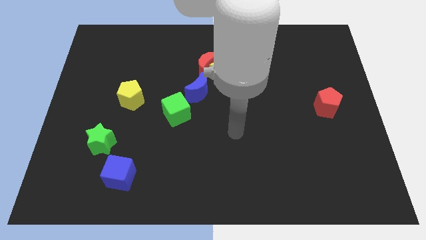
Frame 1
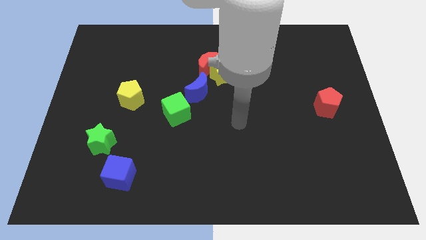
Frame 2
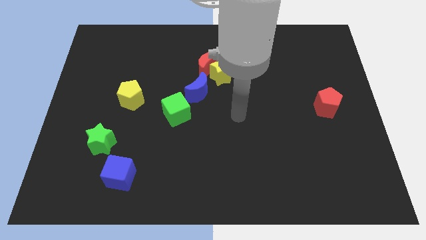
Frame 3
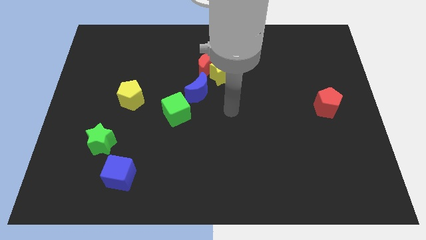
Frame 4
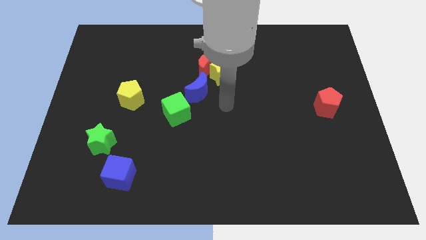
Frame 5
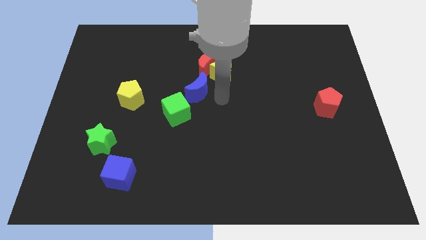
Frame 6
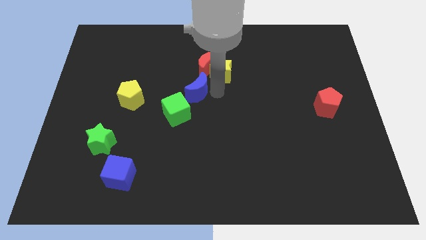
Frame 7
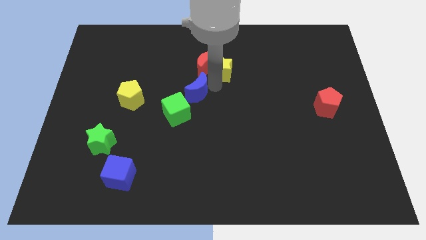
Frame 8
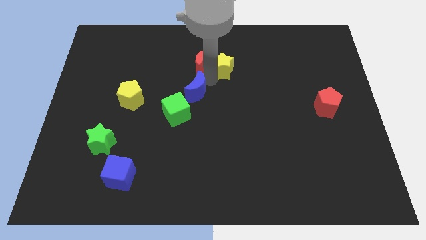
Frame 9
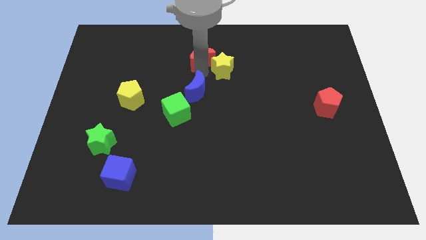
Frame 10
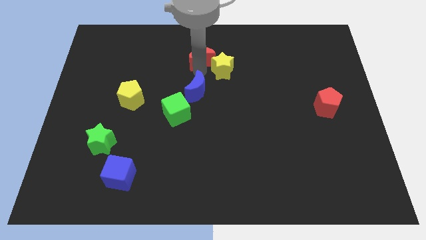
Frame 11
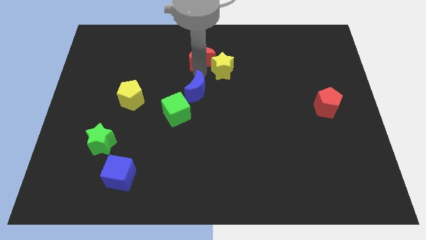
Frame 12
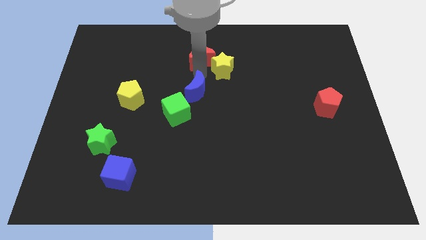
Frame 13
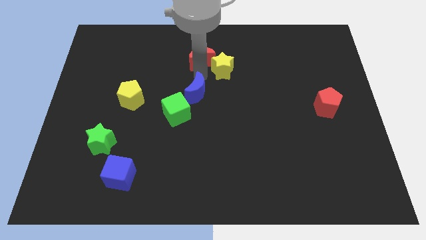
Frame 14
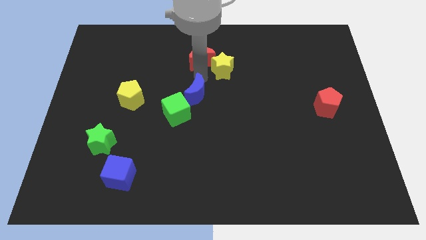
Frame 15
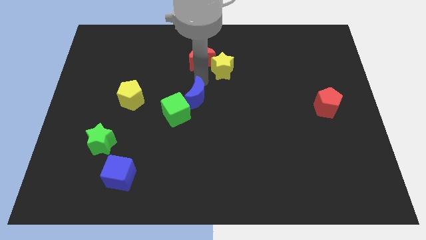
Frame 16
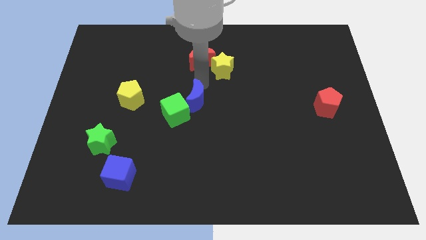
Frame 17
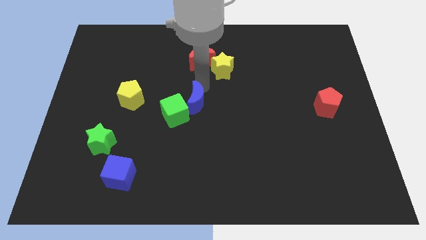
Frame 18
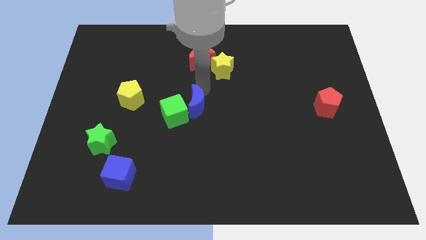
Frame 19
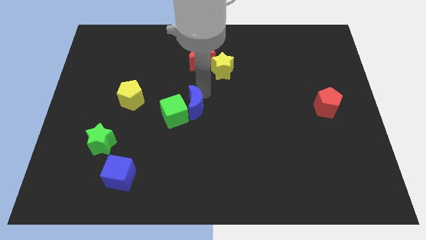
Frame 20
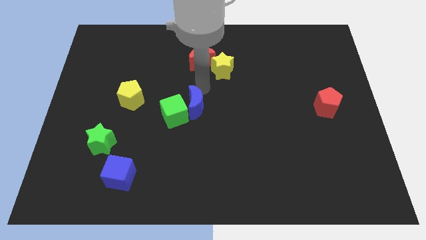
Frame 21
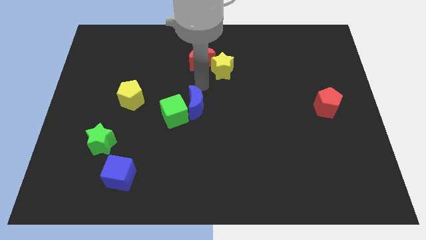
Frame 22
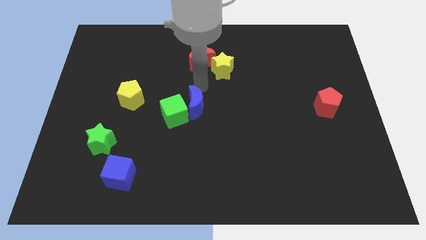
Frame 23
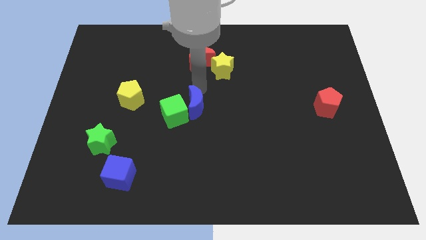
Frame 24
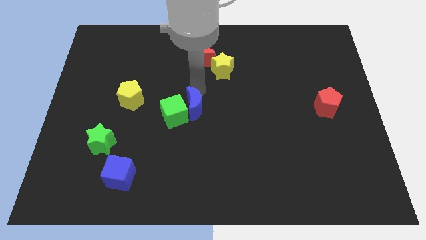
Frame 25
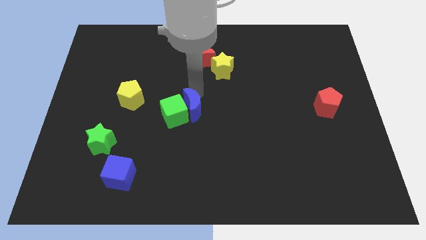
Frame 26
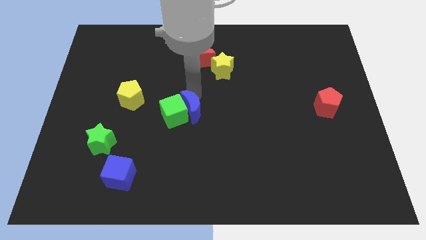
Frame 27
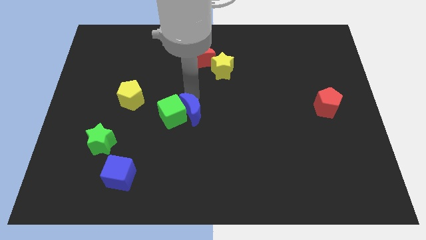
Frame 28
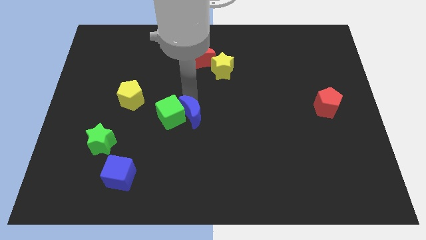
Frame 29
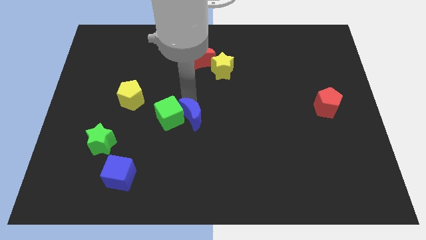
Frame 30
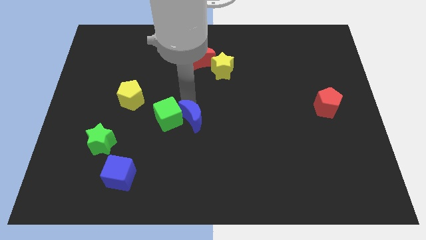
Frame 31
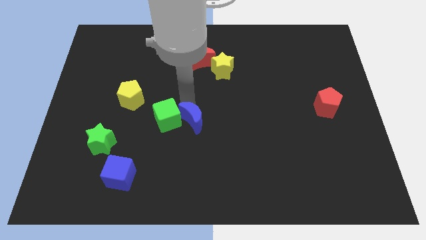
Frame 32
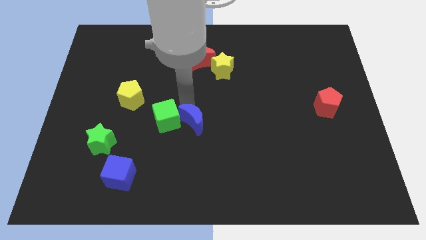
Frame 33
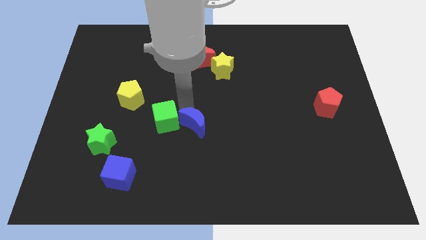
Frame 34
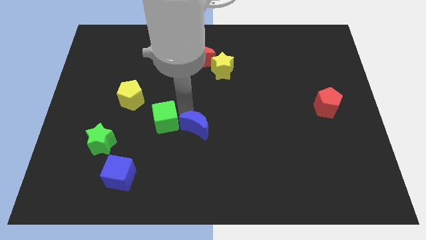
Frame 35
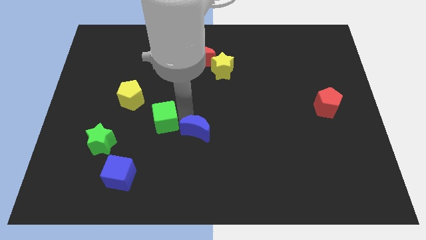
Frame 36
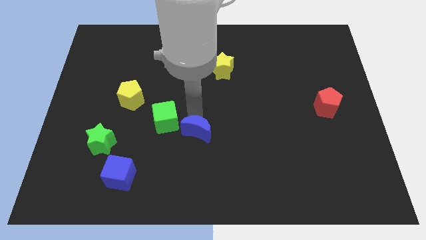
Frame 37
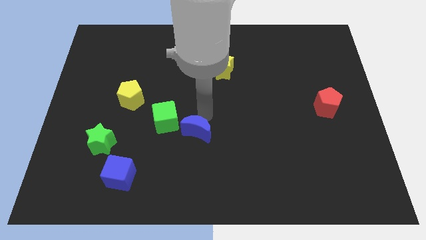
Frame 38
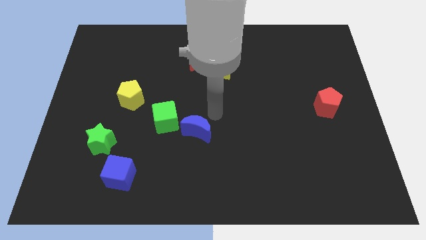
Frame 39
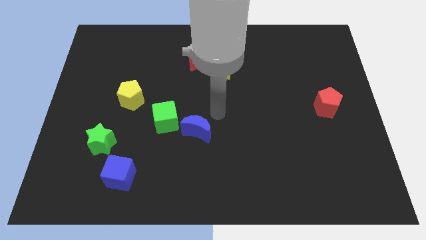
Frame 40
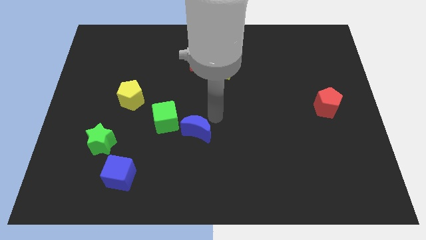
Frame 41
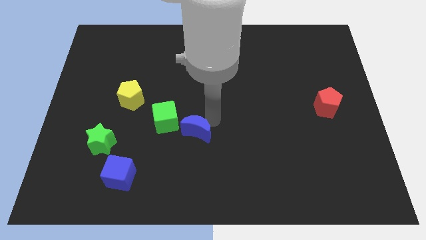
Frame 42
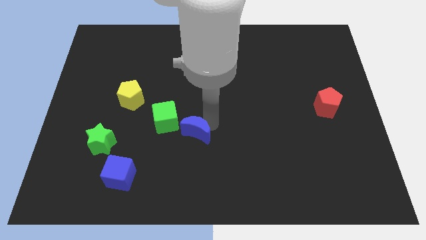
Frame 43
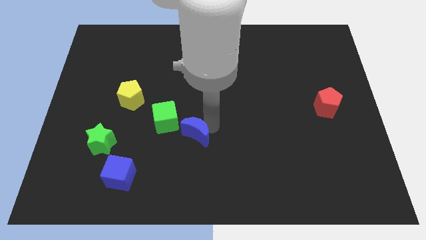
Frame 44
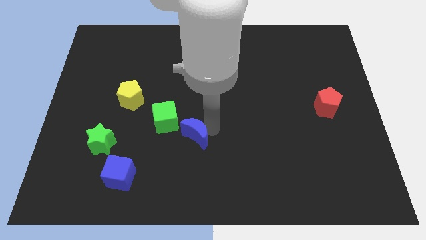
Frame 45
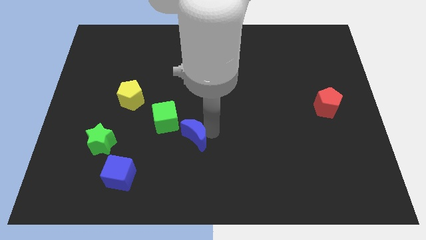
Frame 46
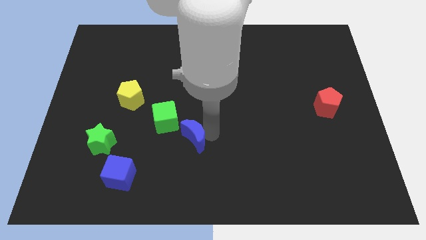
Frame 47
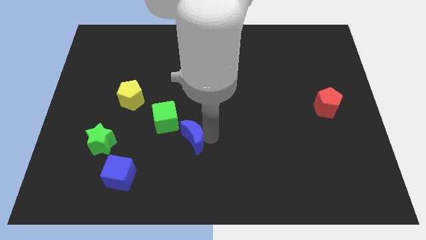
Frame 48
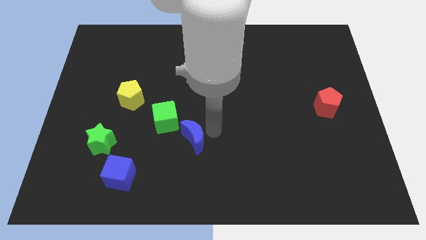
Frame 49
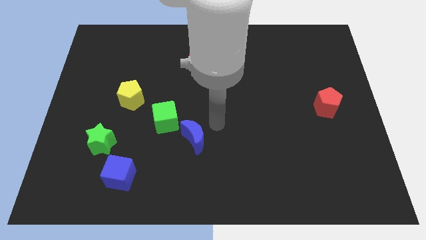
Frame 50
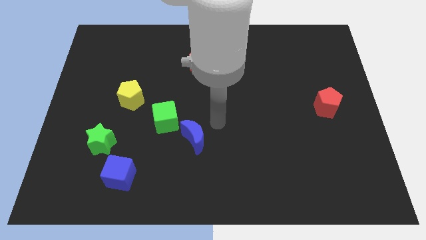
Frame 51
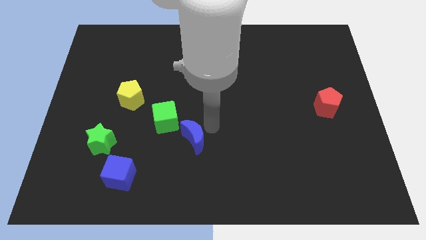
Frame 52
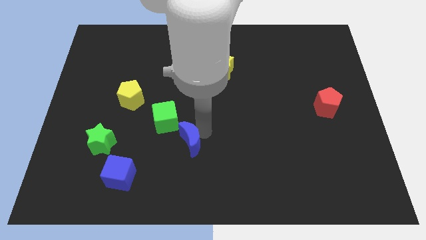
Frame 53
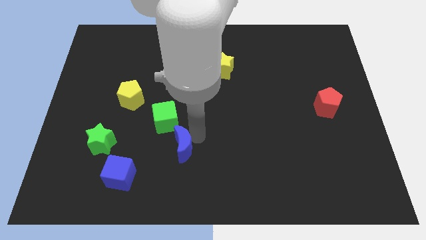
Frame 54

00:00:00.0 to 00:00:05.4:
slide the blue moon to the bottom of the green cube

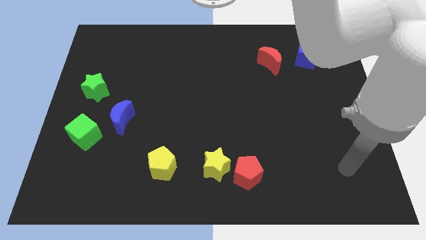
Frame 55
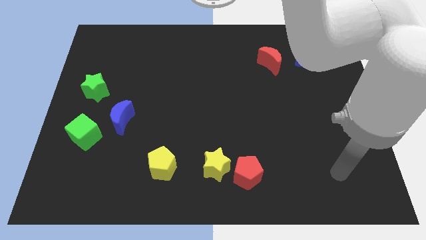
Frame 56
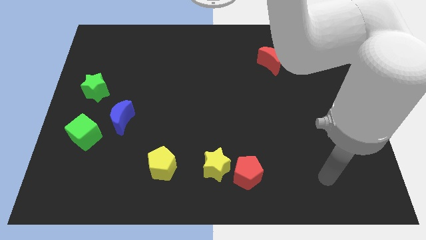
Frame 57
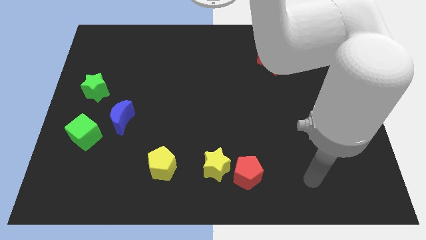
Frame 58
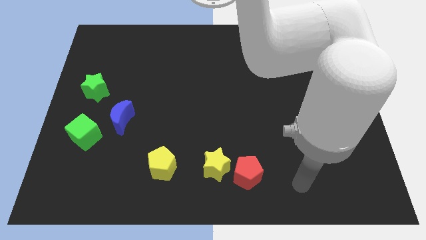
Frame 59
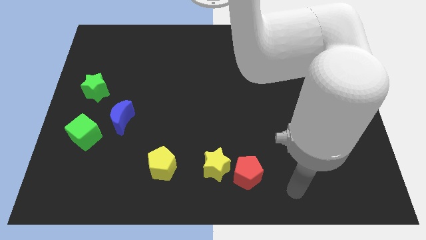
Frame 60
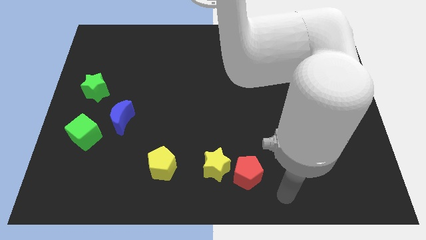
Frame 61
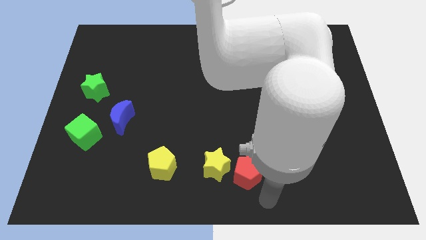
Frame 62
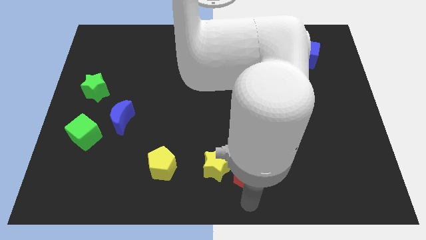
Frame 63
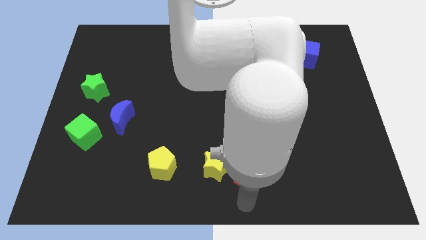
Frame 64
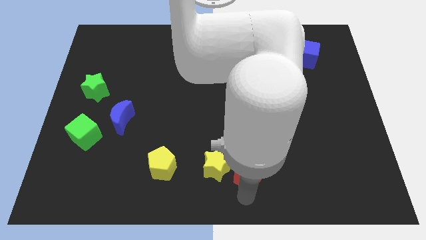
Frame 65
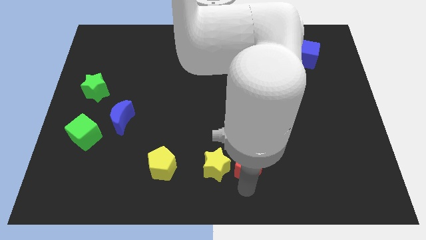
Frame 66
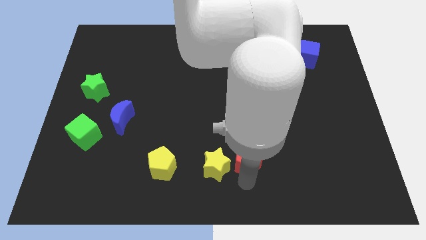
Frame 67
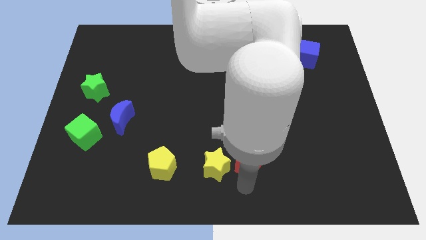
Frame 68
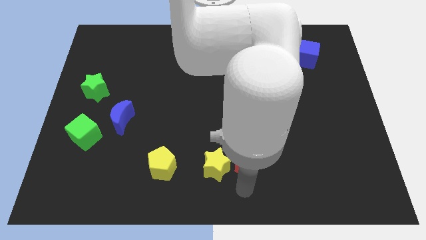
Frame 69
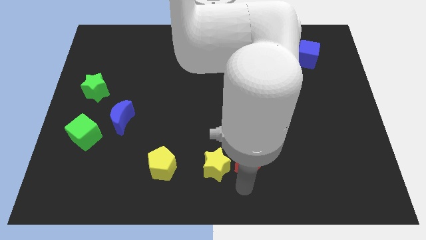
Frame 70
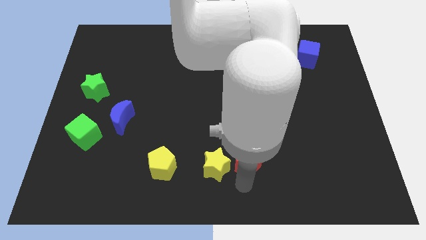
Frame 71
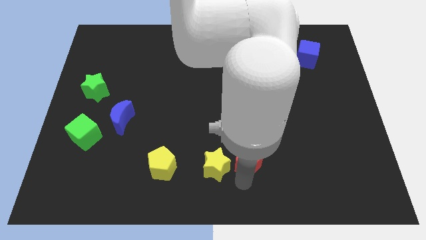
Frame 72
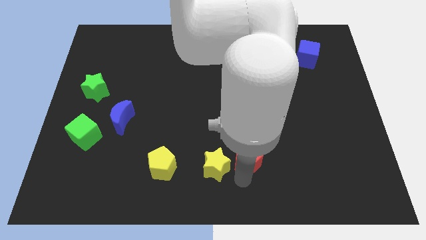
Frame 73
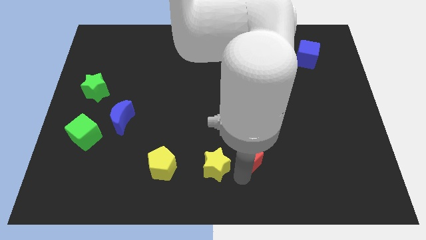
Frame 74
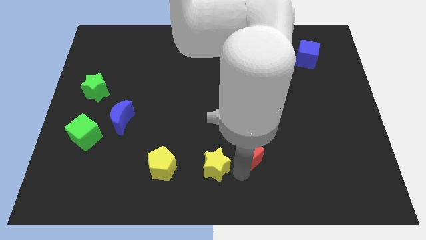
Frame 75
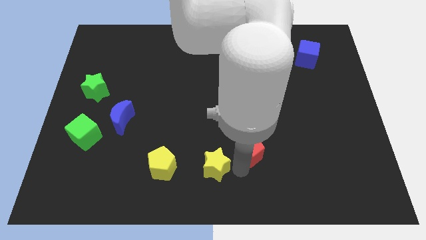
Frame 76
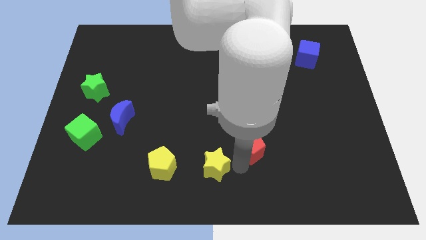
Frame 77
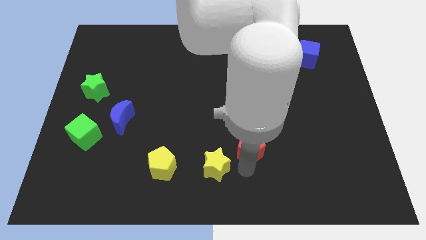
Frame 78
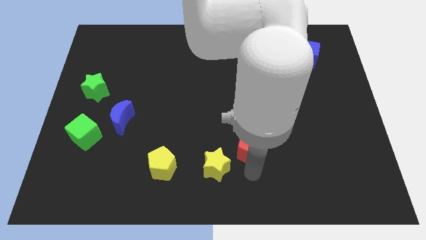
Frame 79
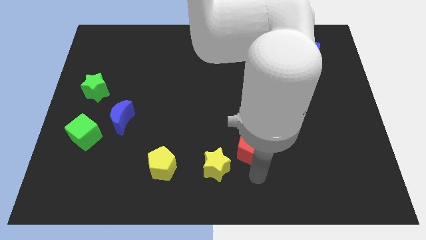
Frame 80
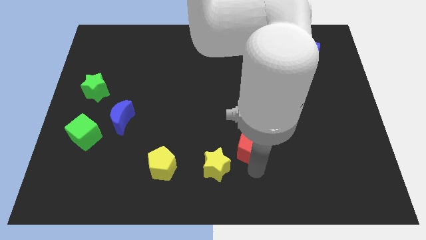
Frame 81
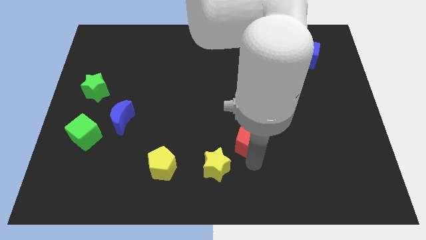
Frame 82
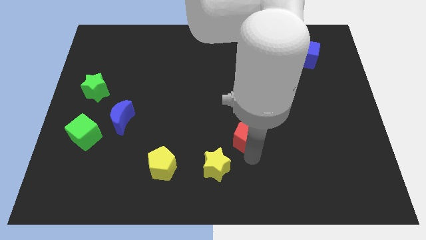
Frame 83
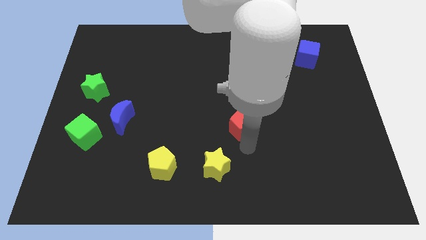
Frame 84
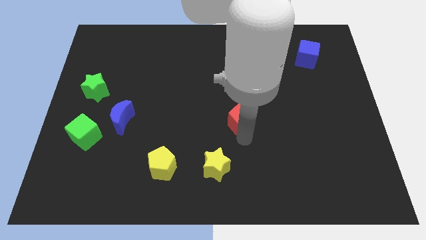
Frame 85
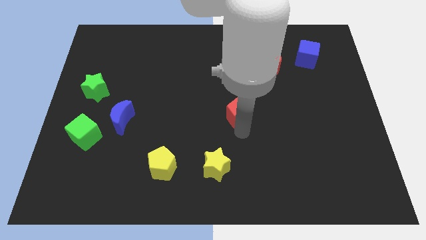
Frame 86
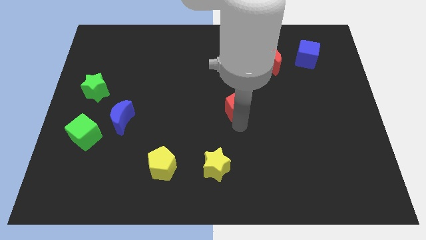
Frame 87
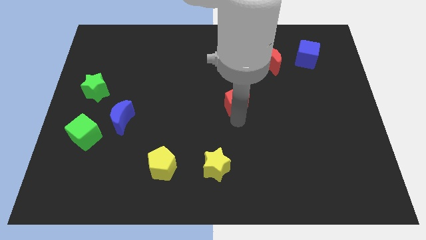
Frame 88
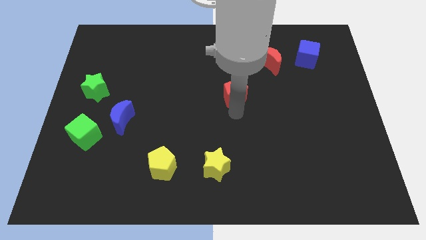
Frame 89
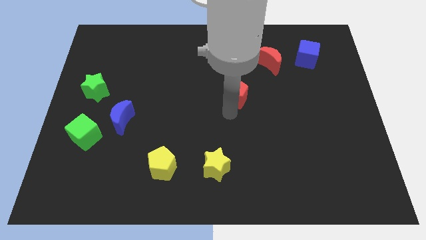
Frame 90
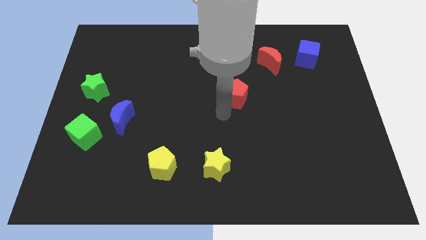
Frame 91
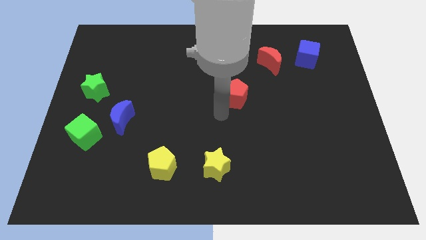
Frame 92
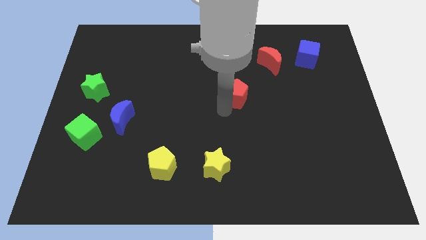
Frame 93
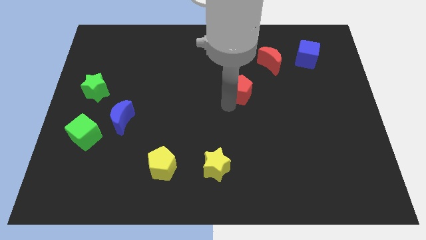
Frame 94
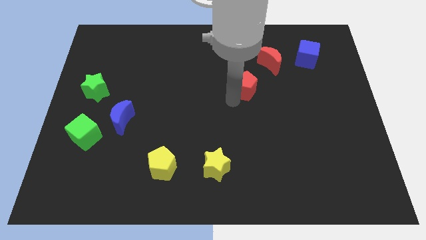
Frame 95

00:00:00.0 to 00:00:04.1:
slide the red pentagon to the bottom left side of the red moon
